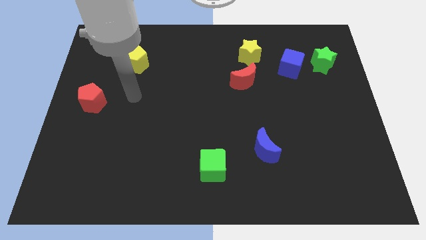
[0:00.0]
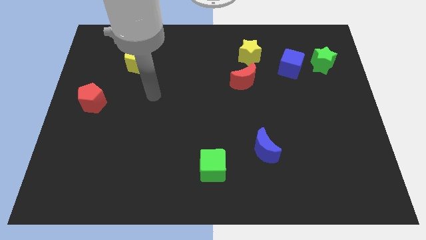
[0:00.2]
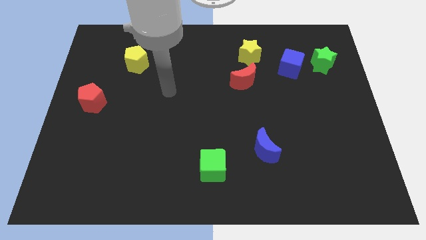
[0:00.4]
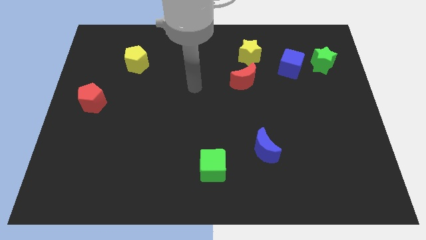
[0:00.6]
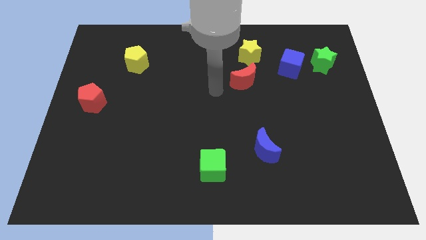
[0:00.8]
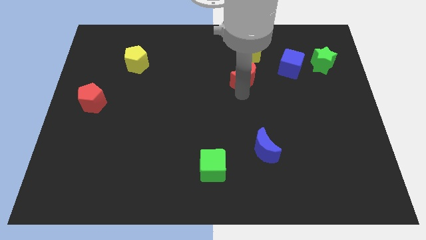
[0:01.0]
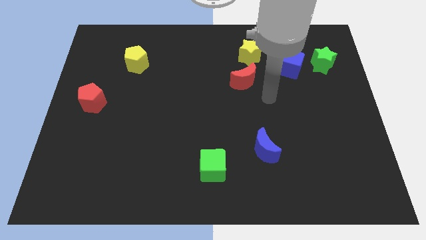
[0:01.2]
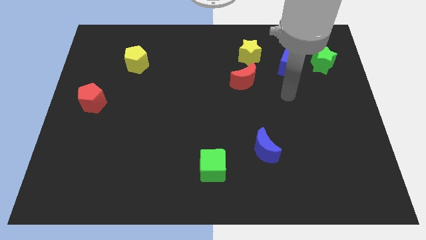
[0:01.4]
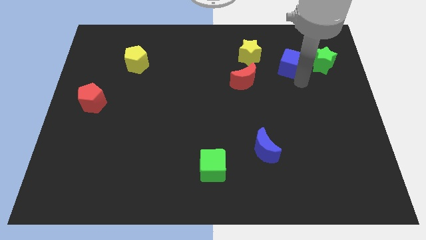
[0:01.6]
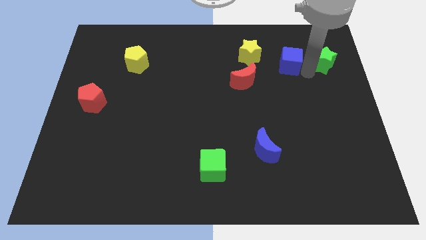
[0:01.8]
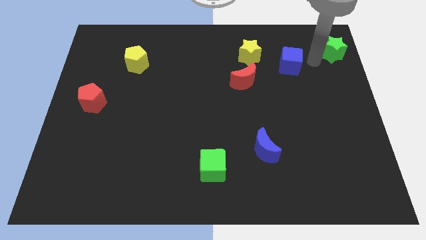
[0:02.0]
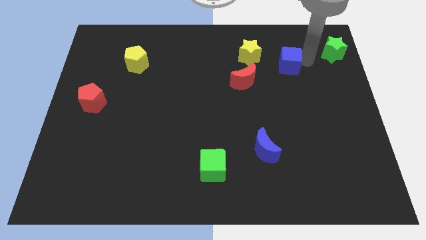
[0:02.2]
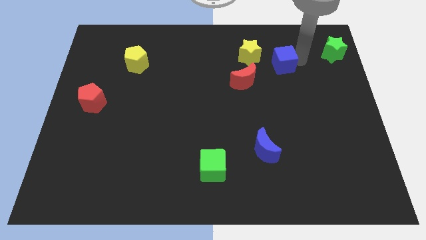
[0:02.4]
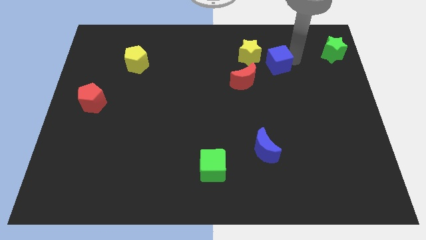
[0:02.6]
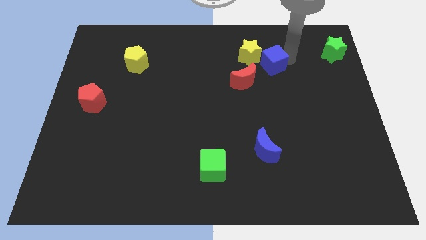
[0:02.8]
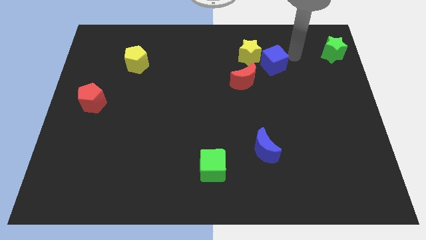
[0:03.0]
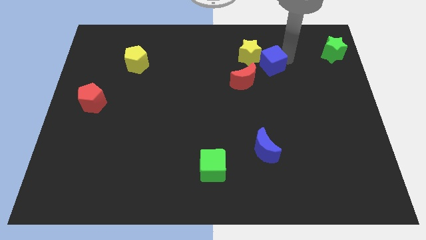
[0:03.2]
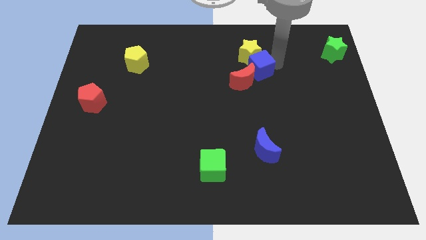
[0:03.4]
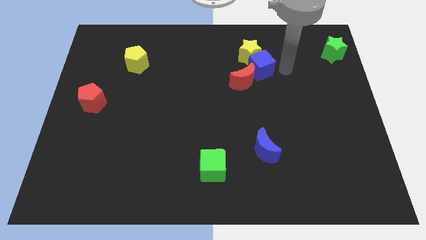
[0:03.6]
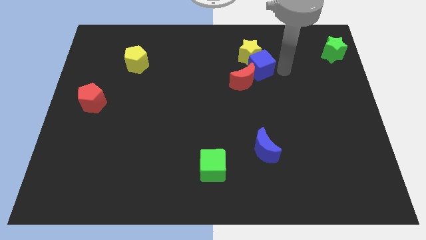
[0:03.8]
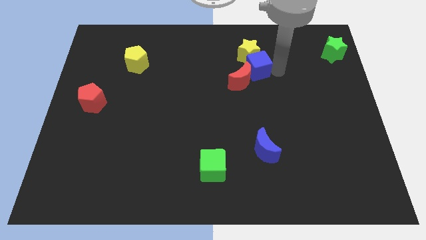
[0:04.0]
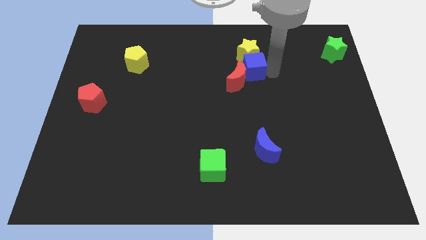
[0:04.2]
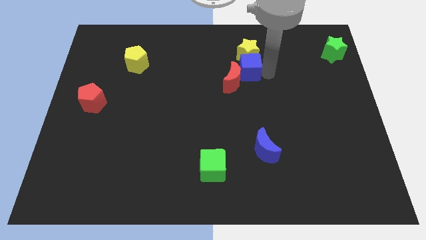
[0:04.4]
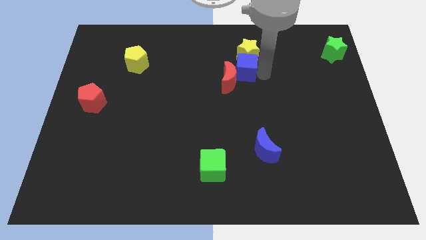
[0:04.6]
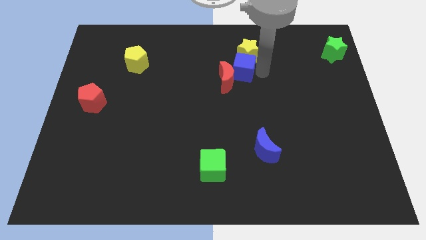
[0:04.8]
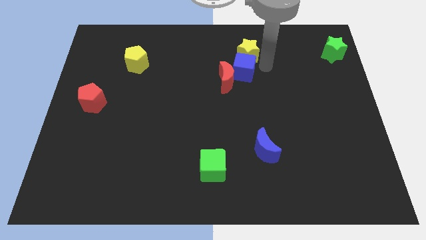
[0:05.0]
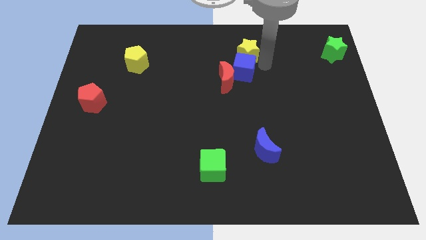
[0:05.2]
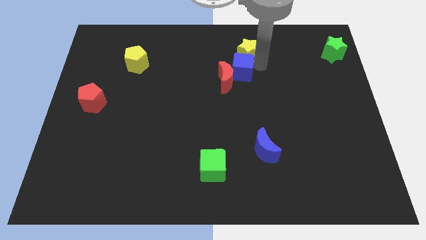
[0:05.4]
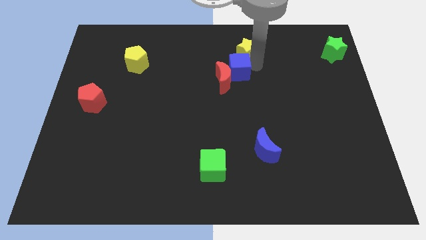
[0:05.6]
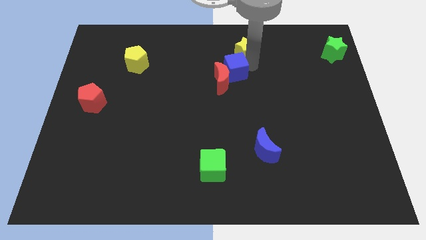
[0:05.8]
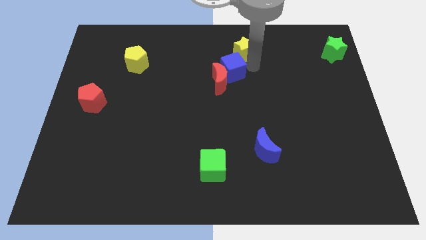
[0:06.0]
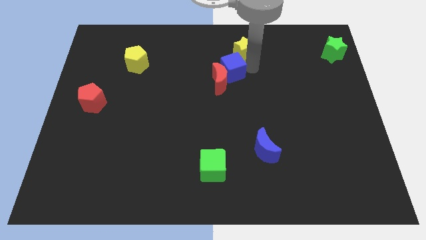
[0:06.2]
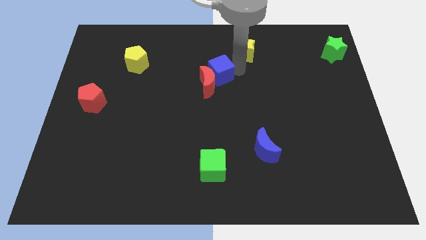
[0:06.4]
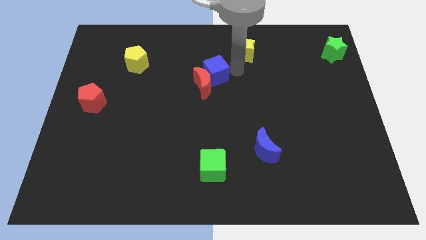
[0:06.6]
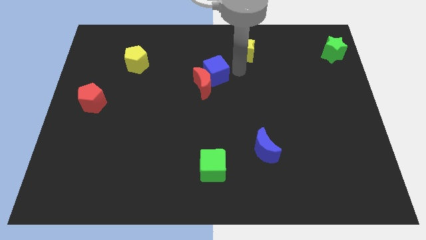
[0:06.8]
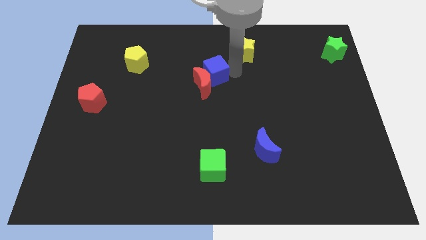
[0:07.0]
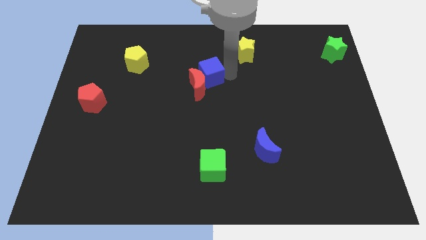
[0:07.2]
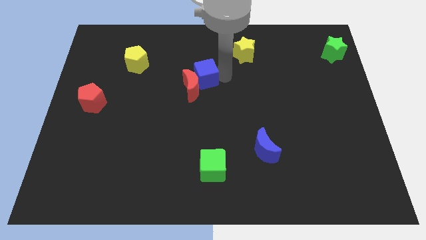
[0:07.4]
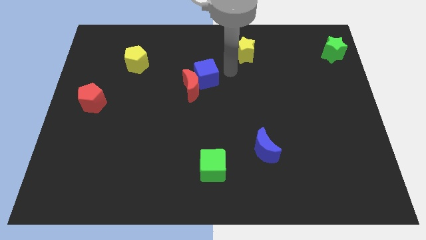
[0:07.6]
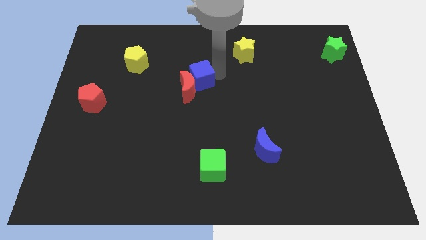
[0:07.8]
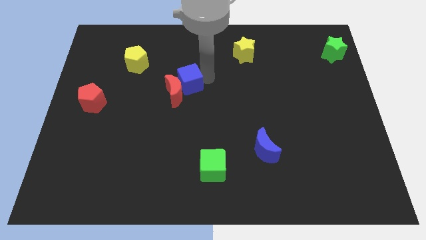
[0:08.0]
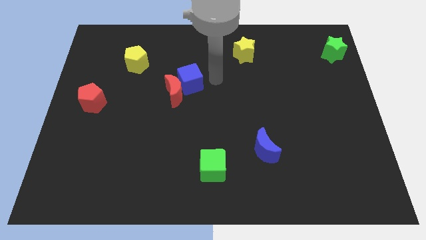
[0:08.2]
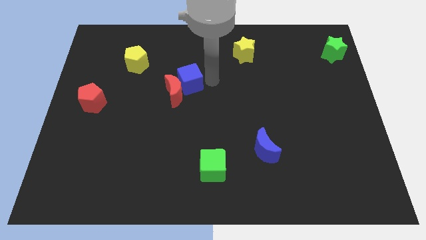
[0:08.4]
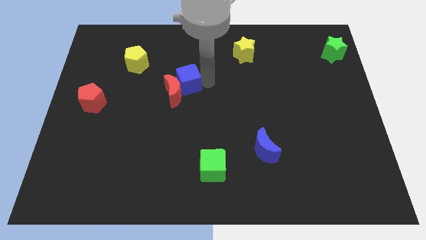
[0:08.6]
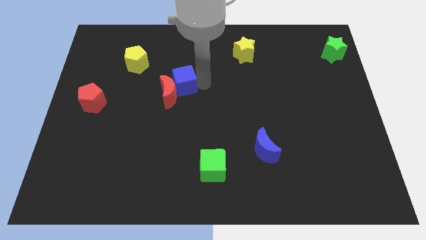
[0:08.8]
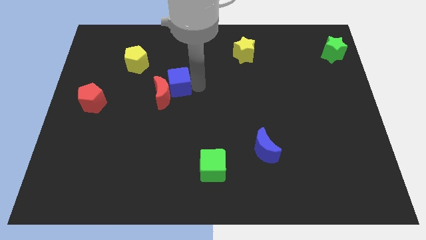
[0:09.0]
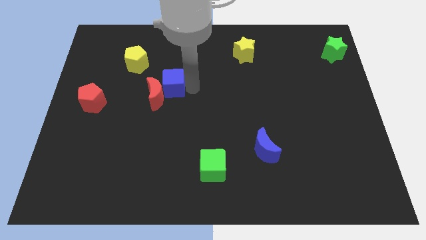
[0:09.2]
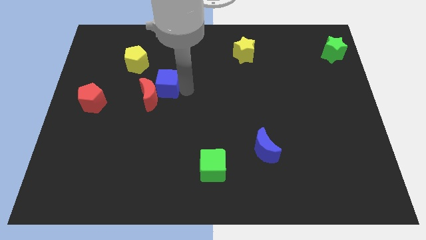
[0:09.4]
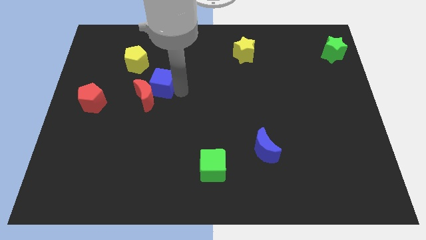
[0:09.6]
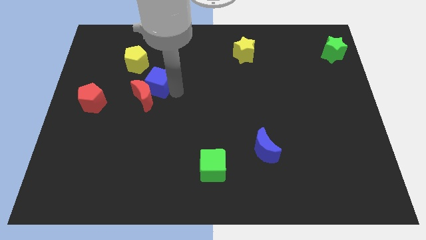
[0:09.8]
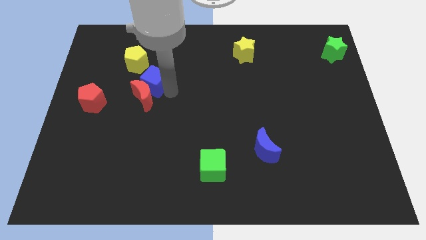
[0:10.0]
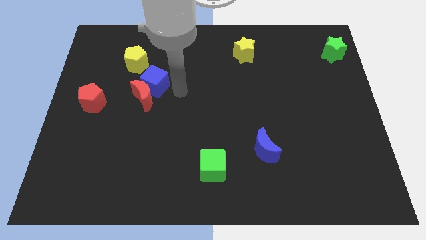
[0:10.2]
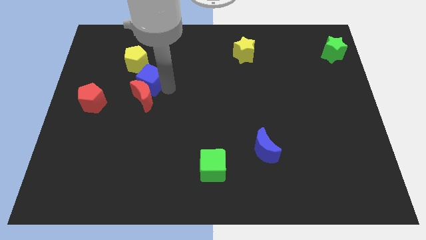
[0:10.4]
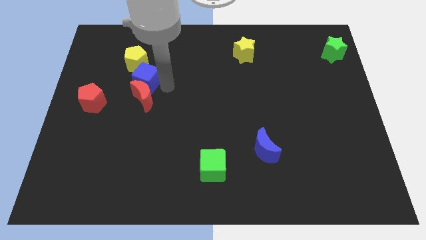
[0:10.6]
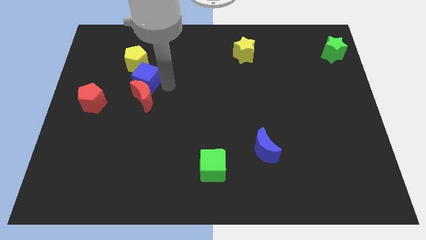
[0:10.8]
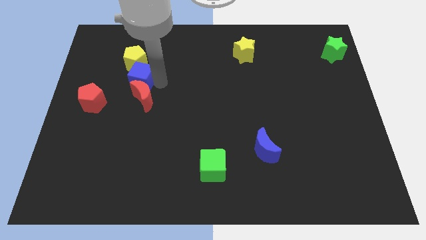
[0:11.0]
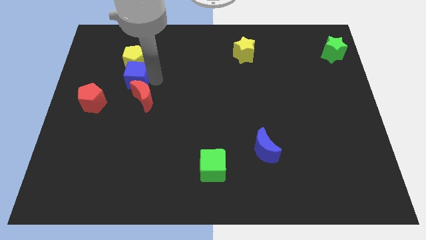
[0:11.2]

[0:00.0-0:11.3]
slide the blue cube to the bottom left of the yellow pentagon

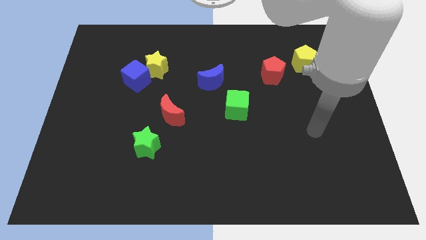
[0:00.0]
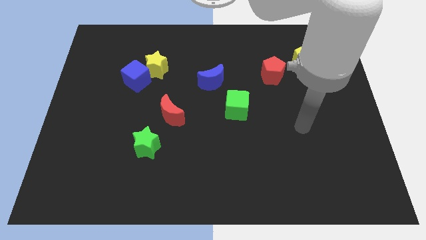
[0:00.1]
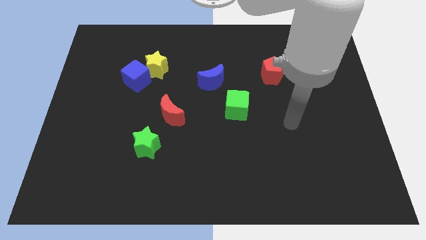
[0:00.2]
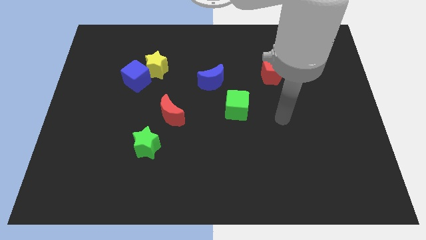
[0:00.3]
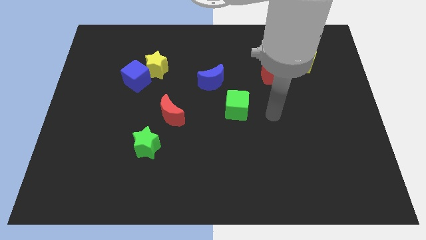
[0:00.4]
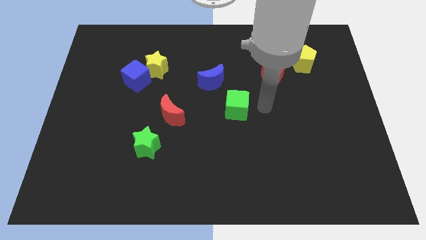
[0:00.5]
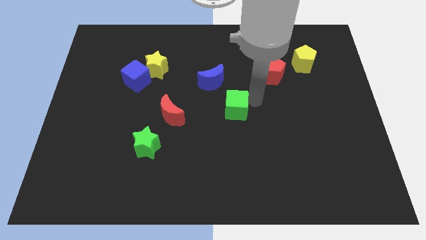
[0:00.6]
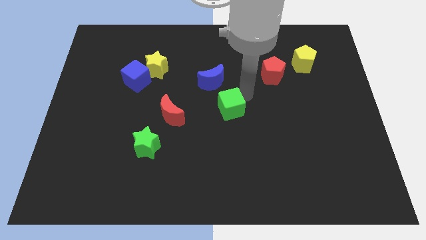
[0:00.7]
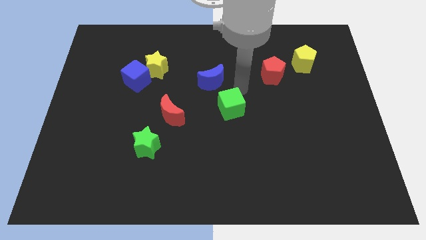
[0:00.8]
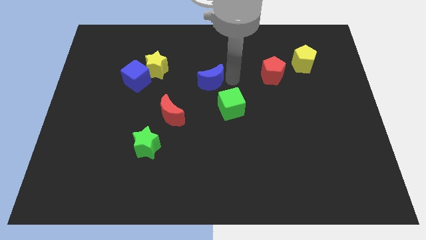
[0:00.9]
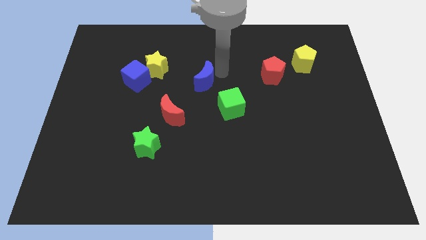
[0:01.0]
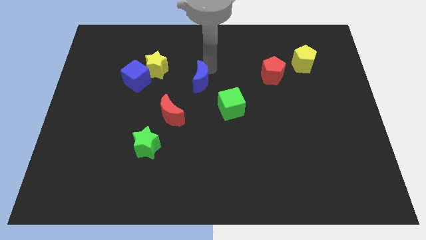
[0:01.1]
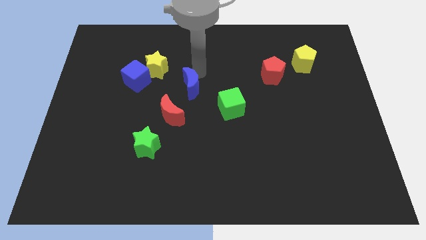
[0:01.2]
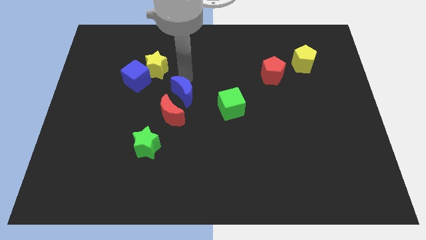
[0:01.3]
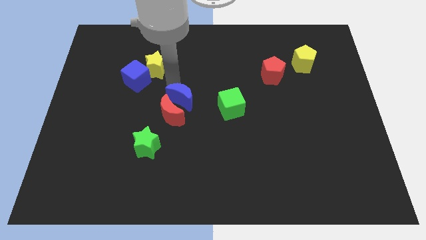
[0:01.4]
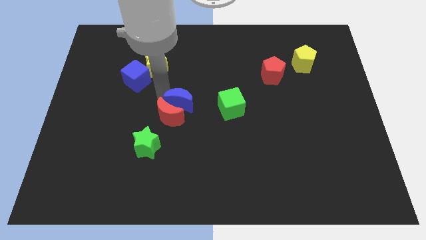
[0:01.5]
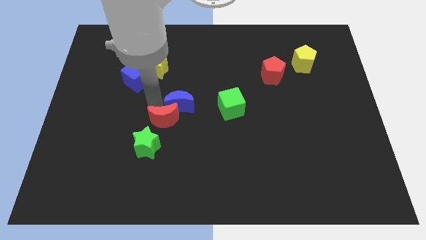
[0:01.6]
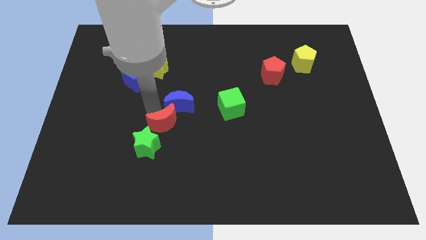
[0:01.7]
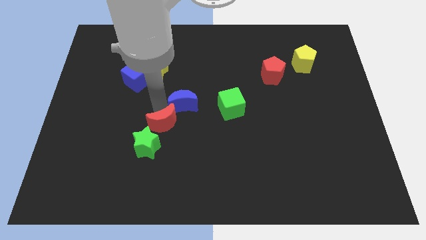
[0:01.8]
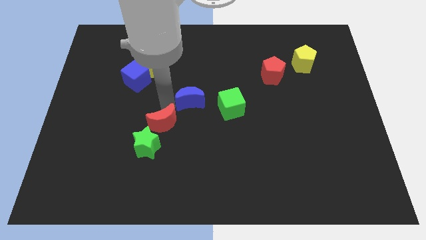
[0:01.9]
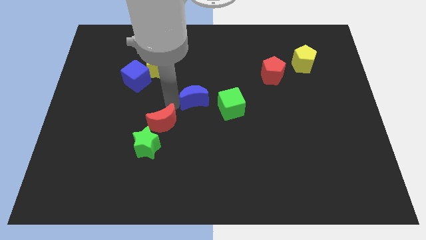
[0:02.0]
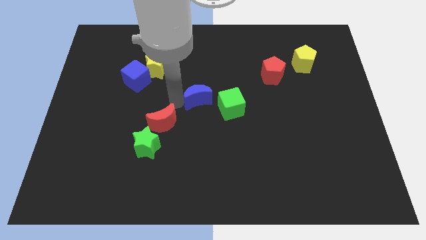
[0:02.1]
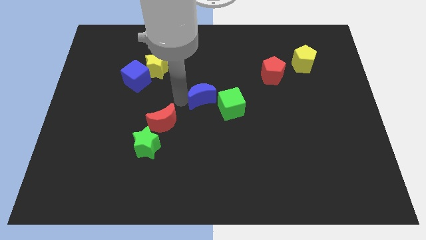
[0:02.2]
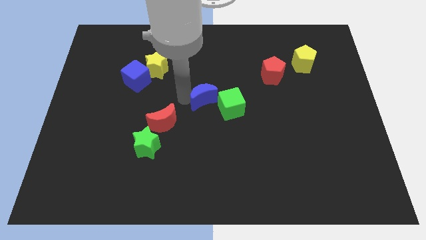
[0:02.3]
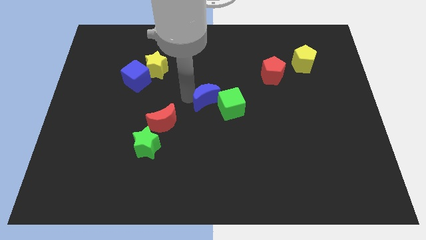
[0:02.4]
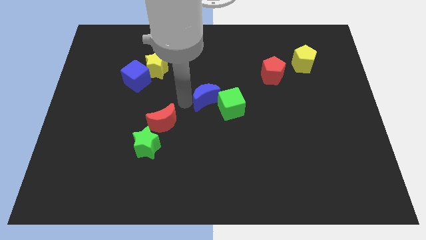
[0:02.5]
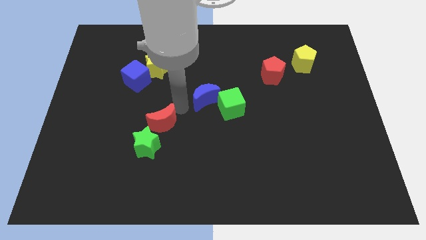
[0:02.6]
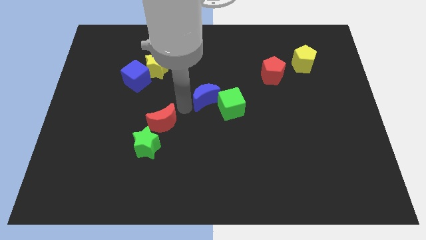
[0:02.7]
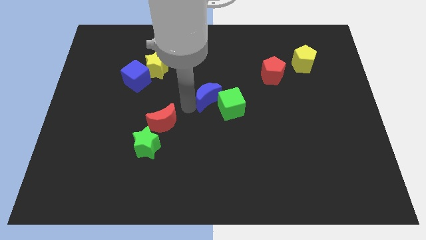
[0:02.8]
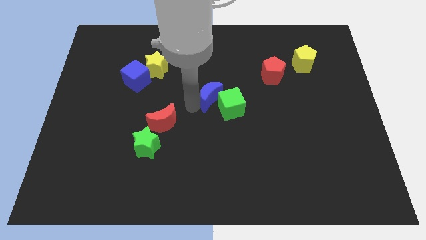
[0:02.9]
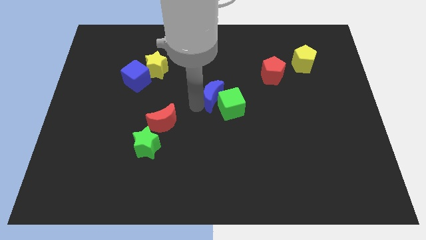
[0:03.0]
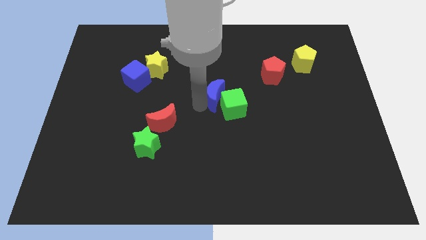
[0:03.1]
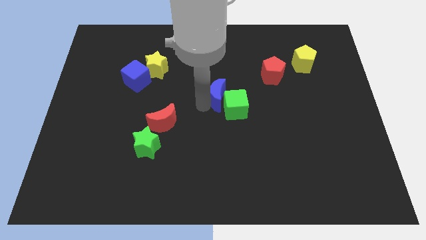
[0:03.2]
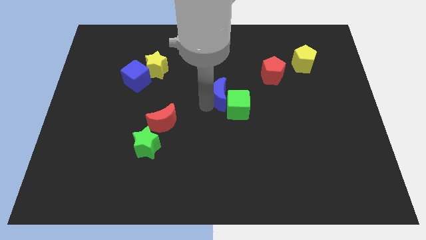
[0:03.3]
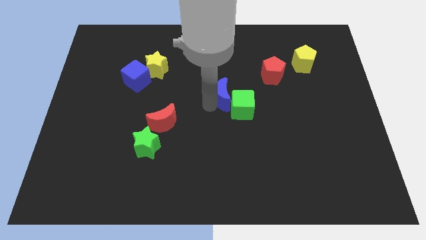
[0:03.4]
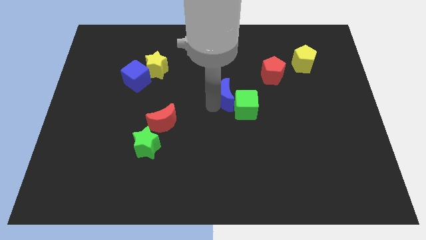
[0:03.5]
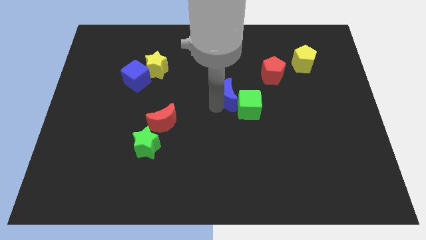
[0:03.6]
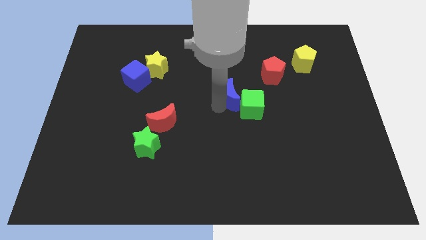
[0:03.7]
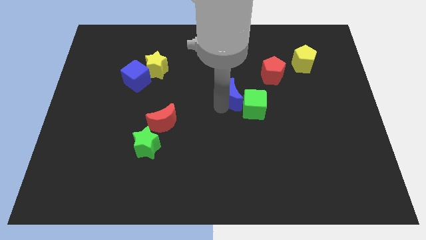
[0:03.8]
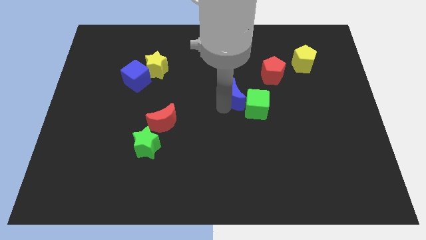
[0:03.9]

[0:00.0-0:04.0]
push the blue moon to the bottom left of the red pentagon
